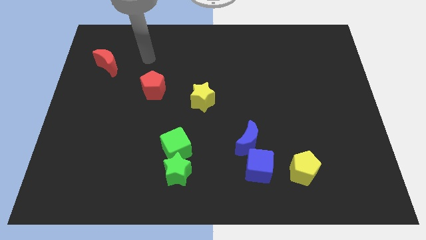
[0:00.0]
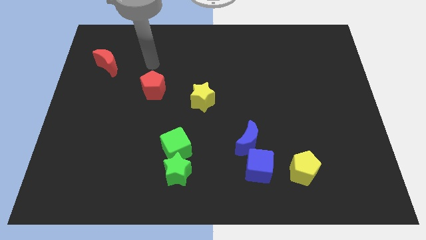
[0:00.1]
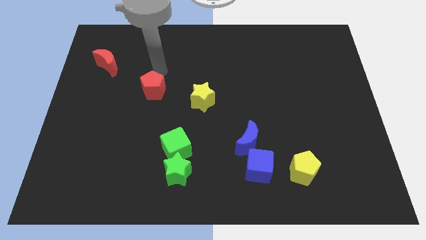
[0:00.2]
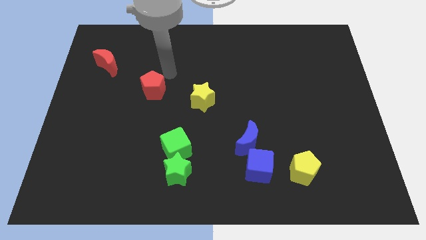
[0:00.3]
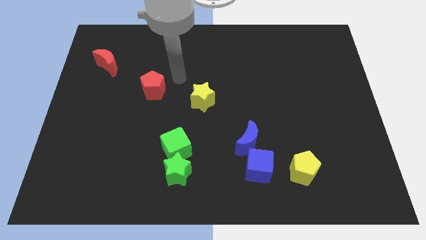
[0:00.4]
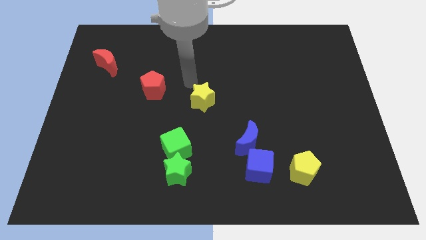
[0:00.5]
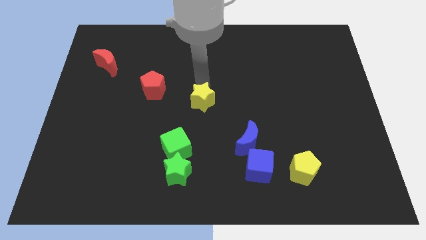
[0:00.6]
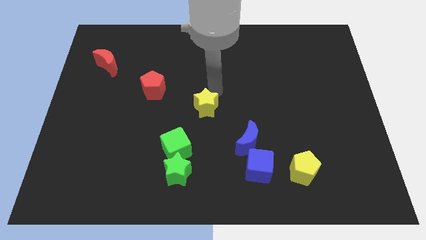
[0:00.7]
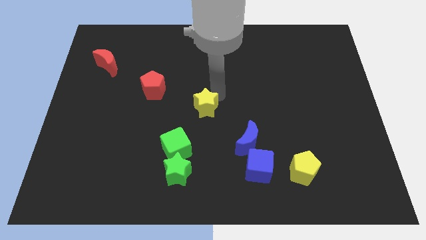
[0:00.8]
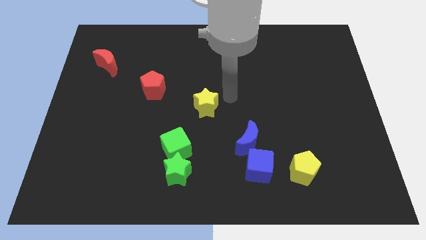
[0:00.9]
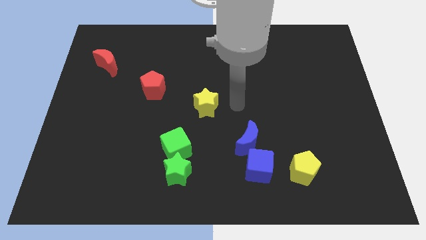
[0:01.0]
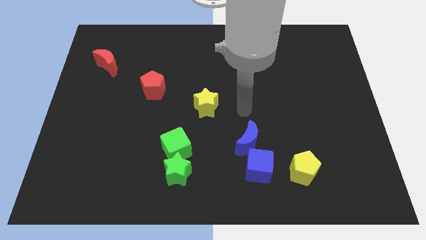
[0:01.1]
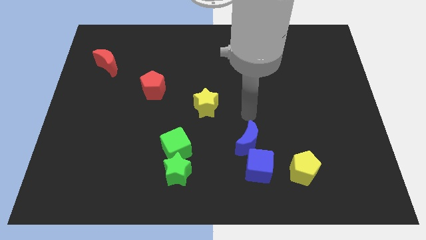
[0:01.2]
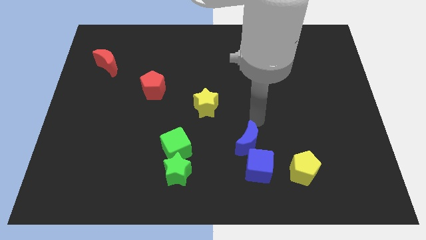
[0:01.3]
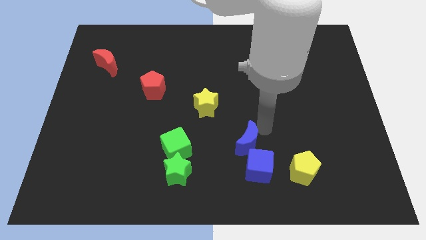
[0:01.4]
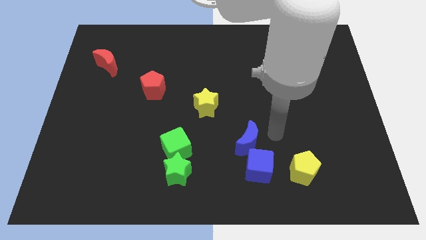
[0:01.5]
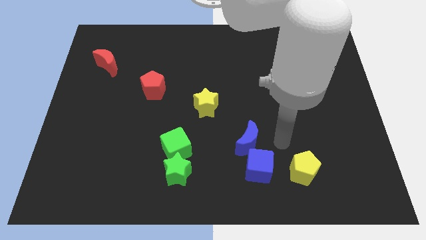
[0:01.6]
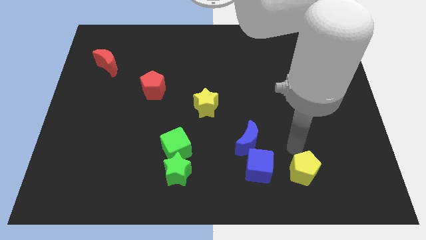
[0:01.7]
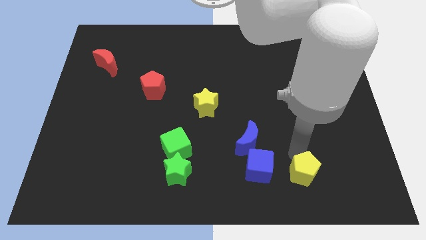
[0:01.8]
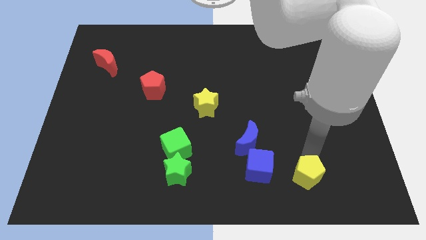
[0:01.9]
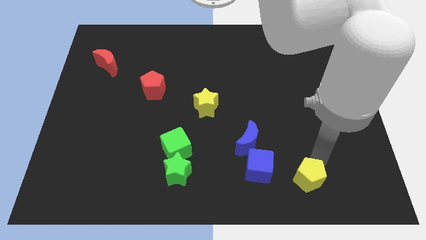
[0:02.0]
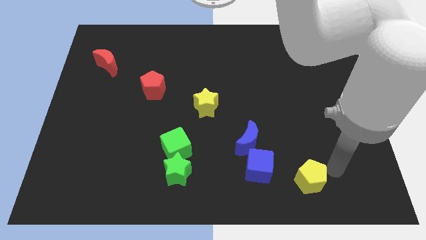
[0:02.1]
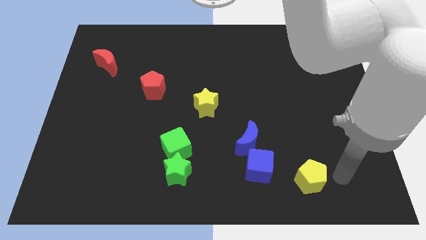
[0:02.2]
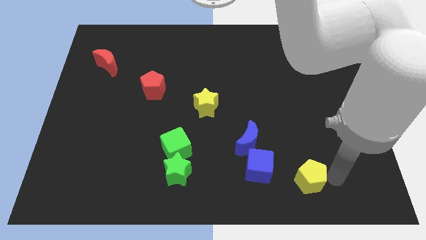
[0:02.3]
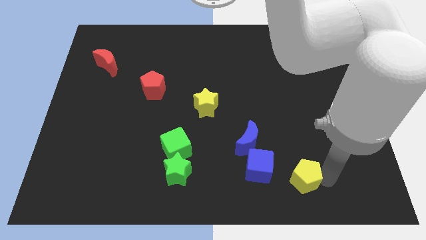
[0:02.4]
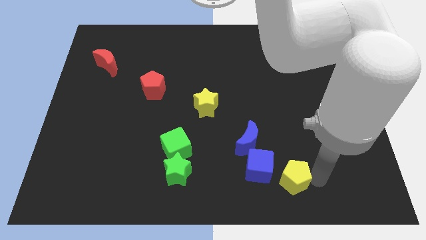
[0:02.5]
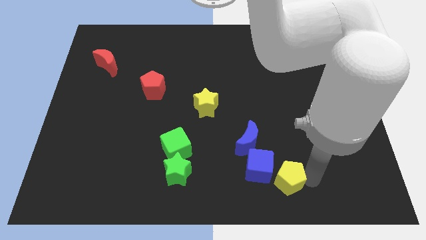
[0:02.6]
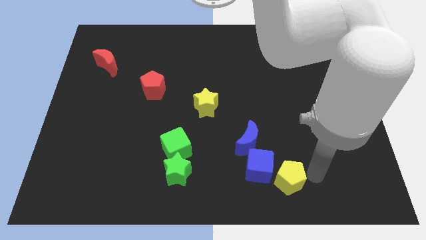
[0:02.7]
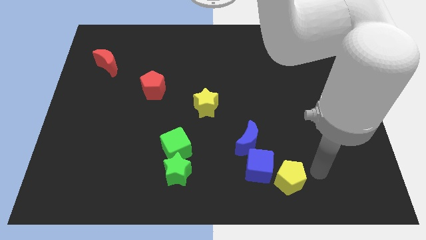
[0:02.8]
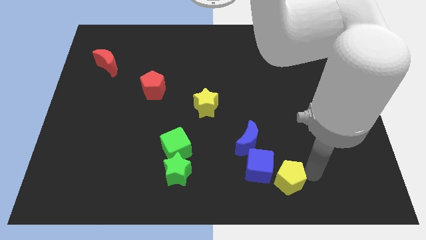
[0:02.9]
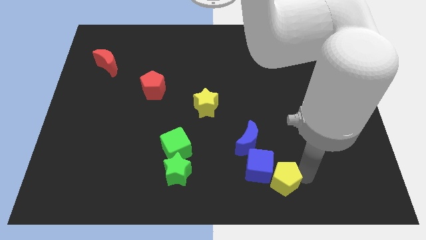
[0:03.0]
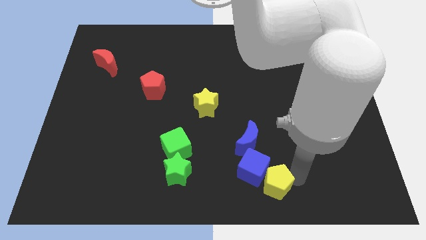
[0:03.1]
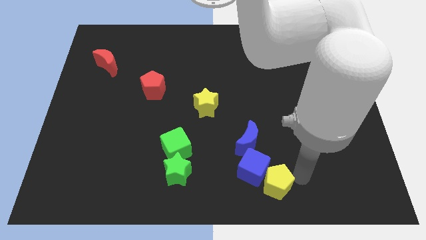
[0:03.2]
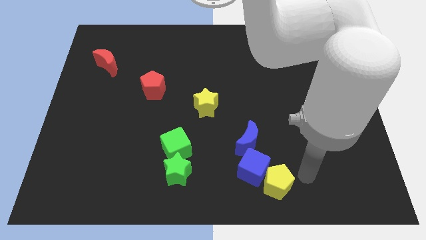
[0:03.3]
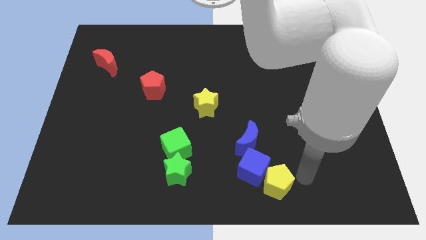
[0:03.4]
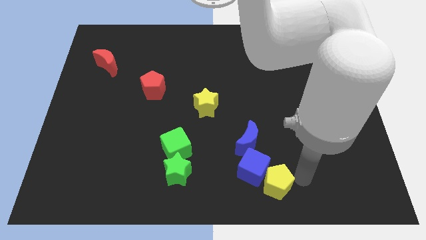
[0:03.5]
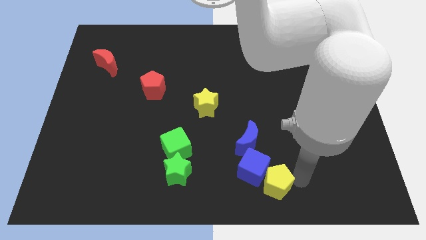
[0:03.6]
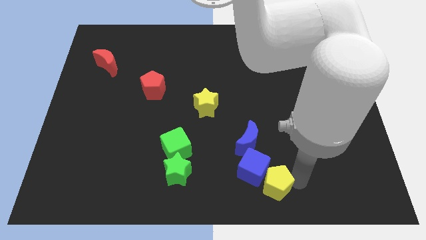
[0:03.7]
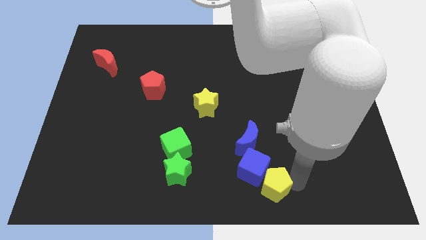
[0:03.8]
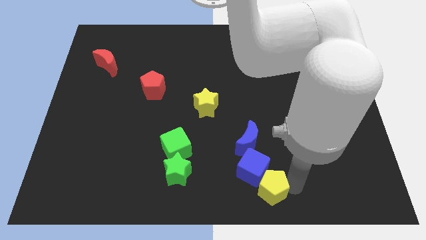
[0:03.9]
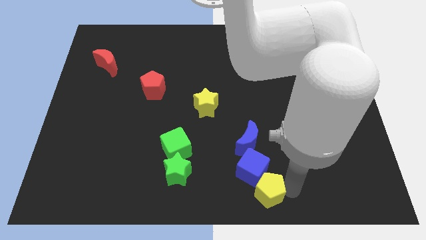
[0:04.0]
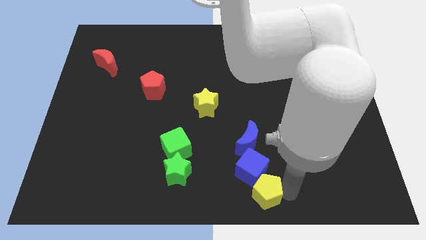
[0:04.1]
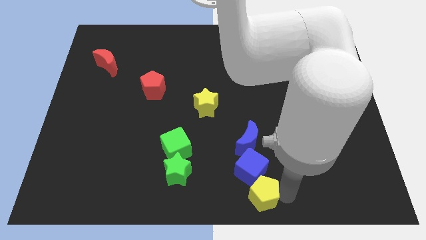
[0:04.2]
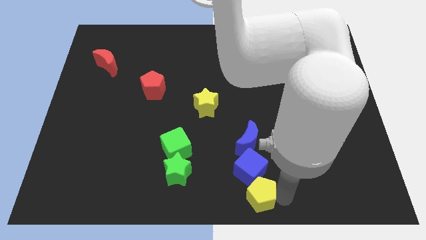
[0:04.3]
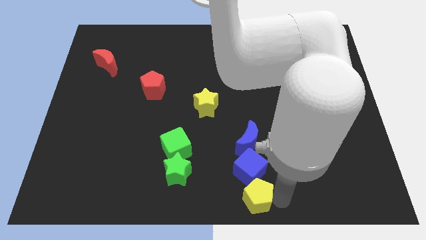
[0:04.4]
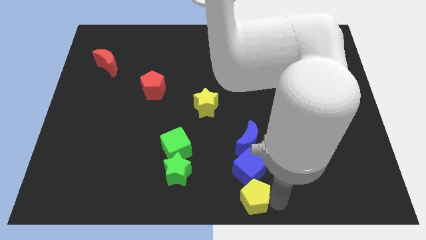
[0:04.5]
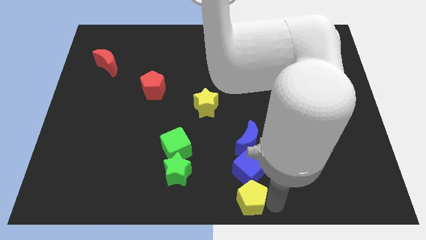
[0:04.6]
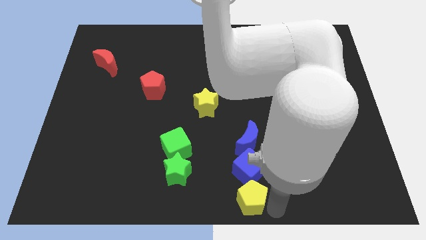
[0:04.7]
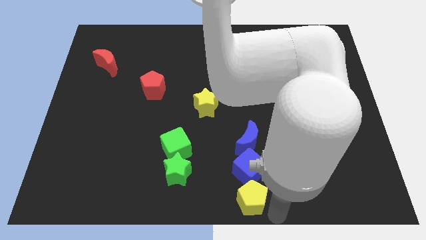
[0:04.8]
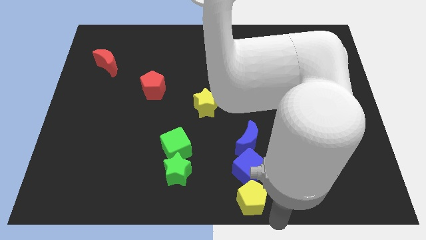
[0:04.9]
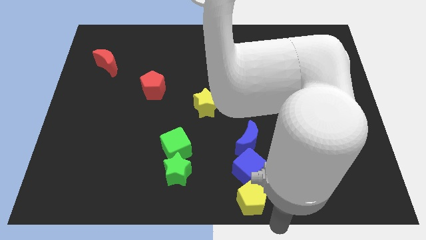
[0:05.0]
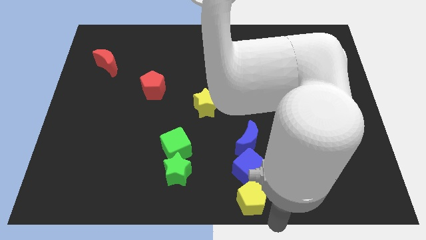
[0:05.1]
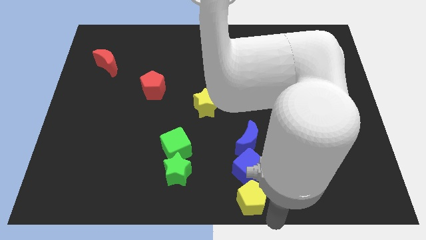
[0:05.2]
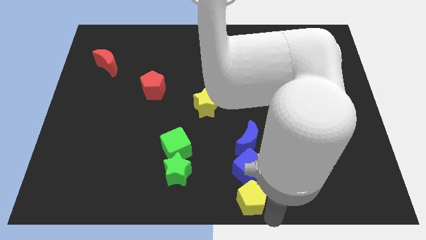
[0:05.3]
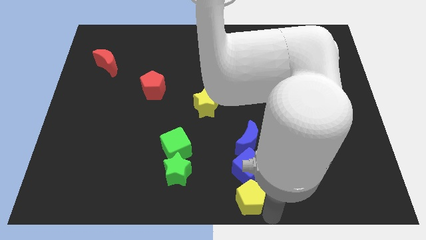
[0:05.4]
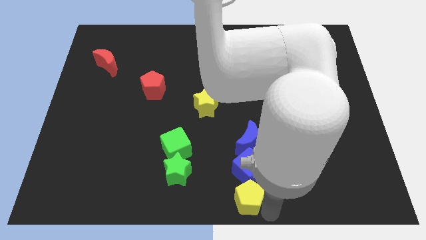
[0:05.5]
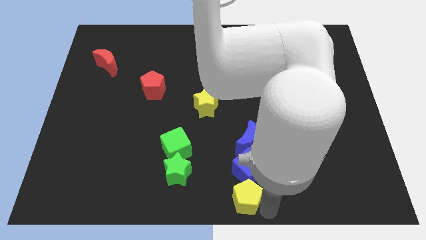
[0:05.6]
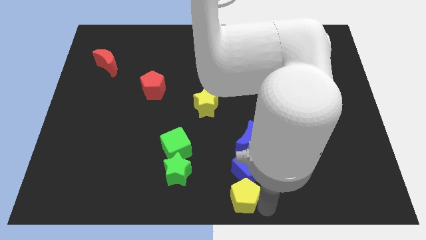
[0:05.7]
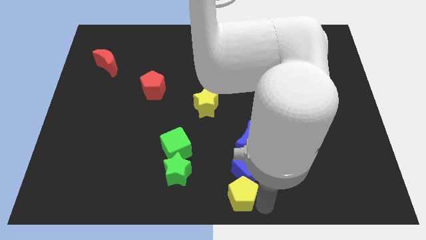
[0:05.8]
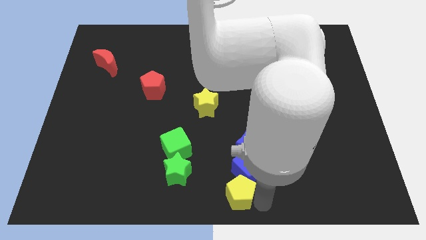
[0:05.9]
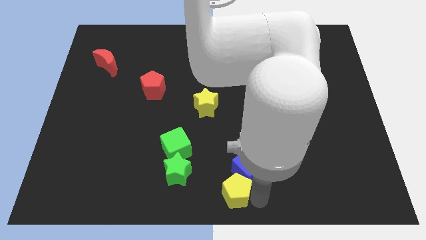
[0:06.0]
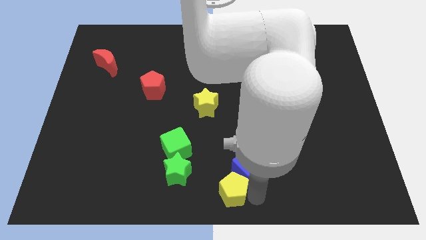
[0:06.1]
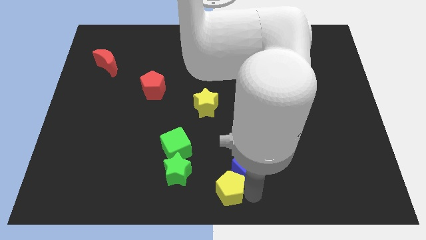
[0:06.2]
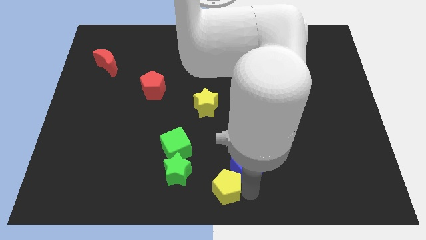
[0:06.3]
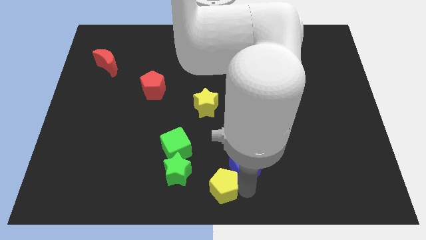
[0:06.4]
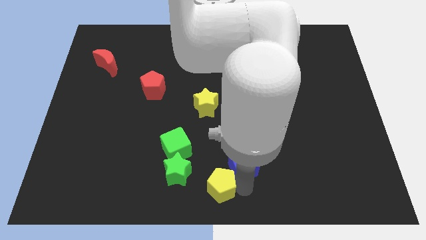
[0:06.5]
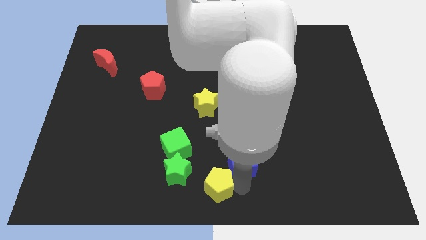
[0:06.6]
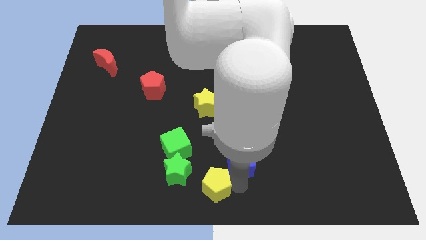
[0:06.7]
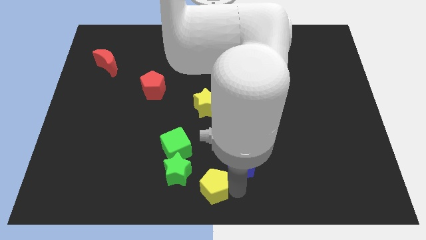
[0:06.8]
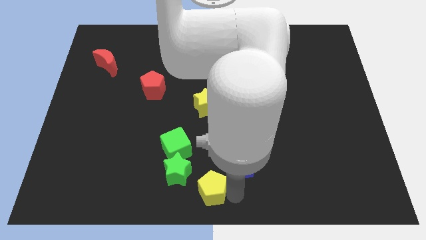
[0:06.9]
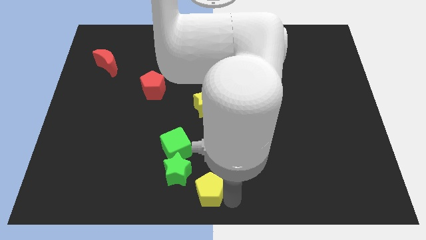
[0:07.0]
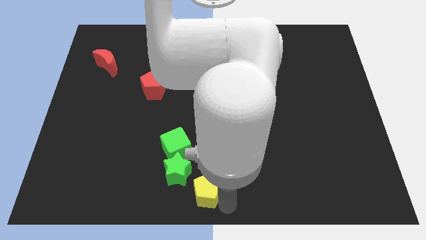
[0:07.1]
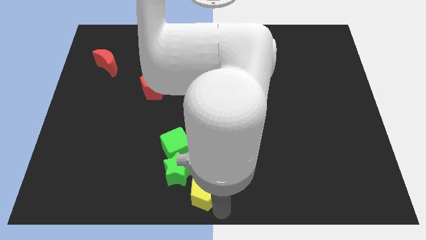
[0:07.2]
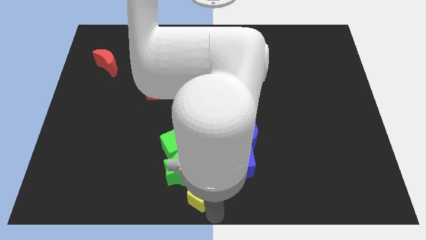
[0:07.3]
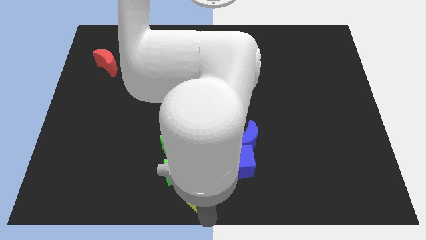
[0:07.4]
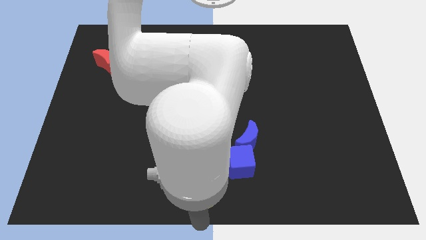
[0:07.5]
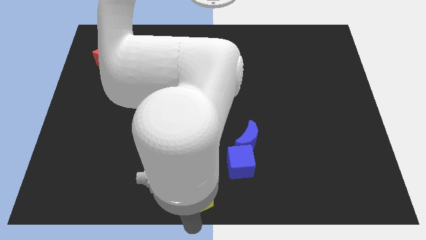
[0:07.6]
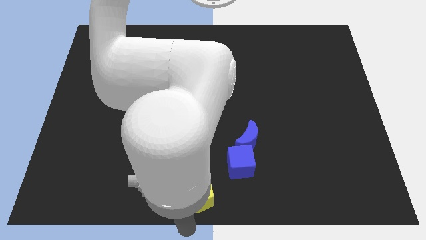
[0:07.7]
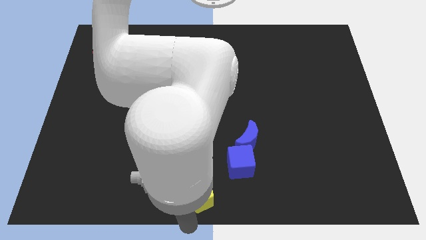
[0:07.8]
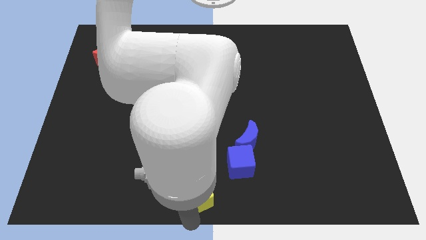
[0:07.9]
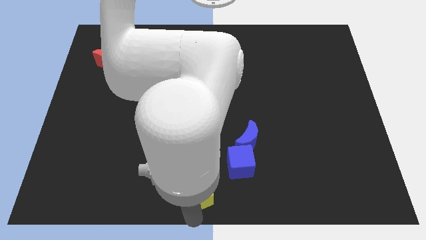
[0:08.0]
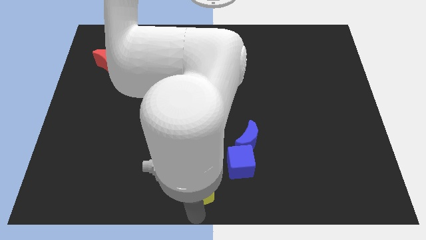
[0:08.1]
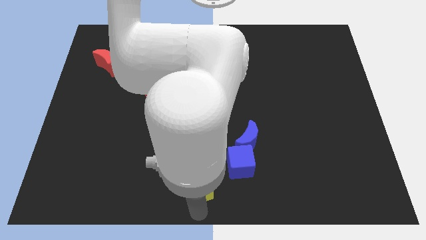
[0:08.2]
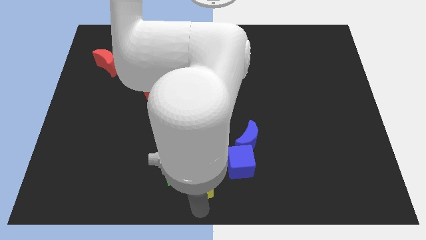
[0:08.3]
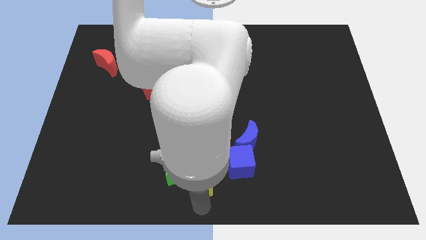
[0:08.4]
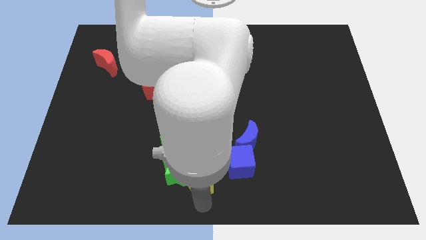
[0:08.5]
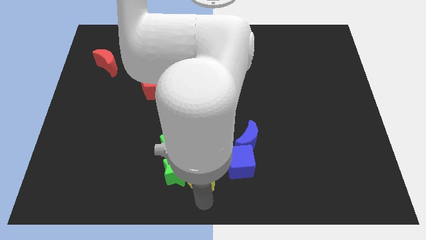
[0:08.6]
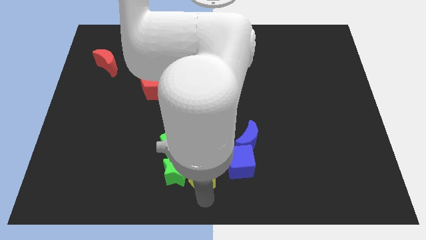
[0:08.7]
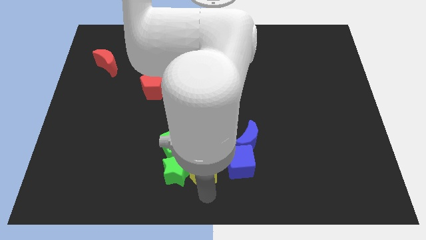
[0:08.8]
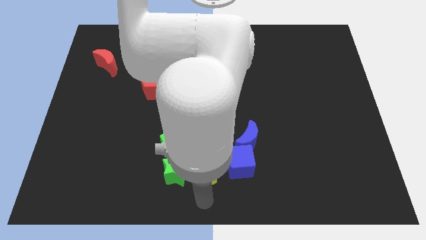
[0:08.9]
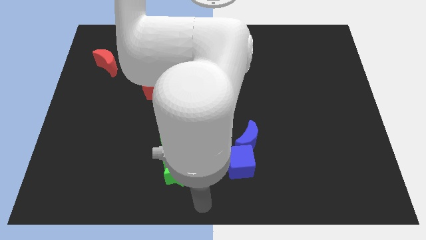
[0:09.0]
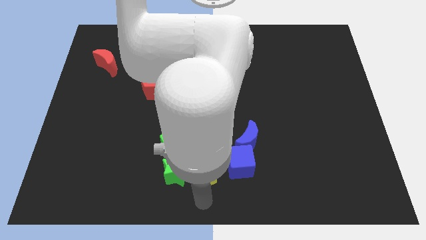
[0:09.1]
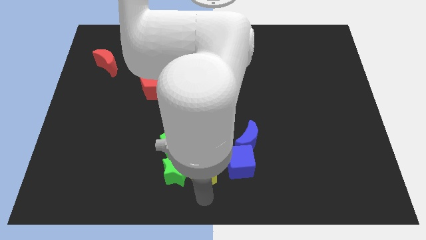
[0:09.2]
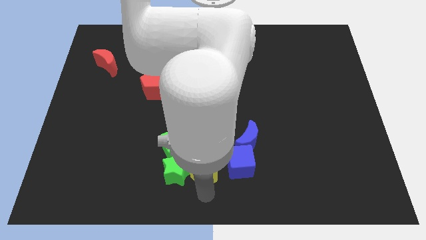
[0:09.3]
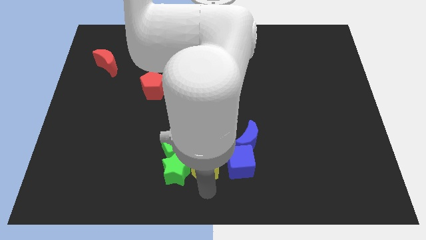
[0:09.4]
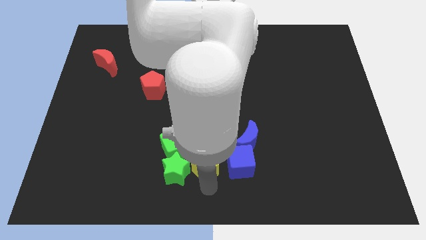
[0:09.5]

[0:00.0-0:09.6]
put the yellow pentagon to the bottom side of the yellow star
